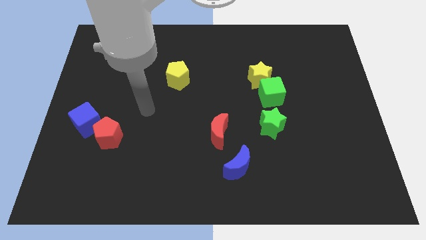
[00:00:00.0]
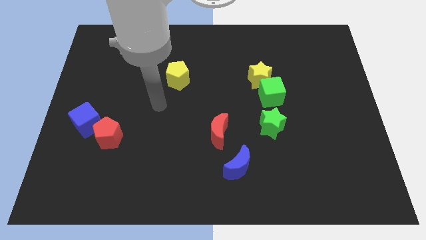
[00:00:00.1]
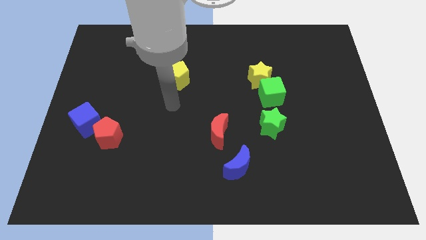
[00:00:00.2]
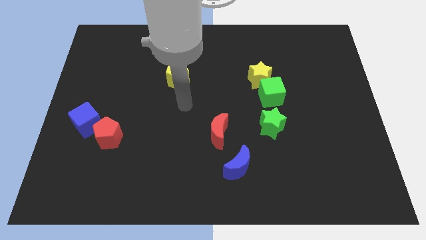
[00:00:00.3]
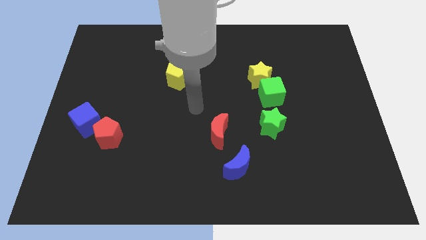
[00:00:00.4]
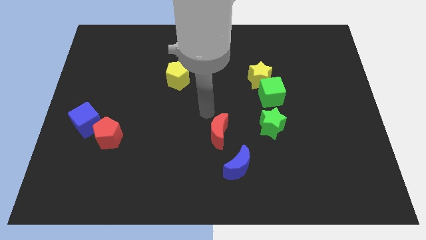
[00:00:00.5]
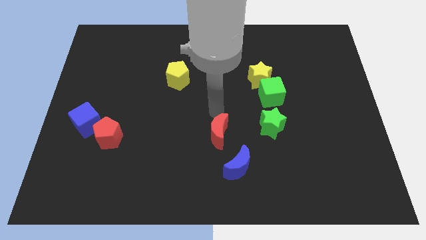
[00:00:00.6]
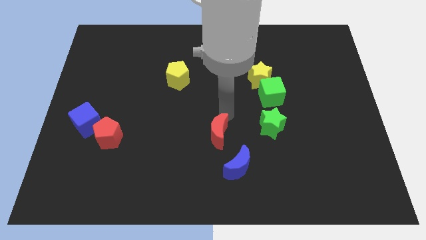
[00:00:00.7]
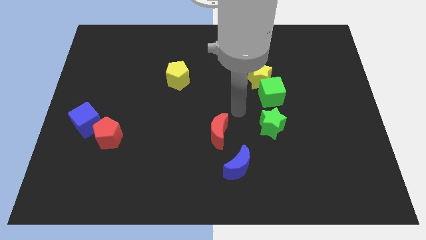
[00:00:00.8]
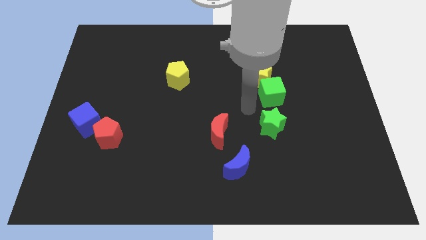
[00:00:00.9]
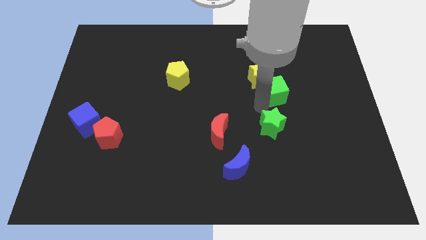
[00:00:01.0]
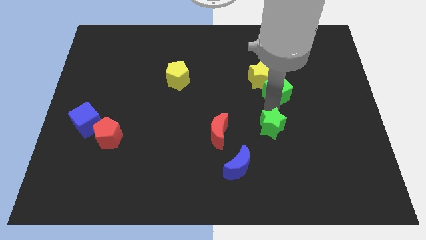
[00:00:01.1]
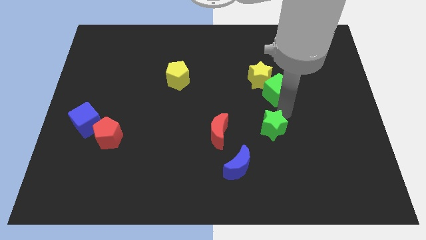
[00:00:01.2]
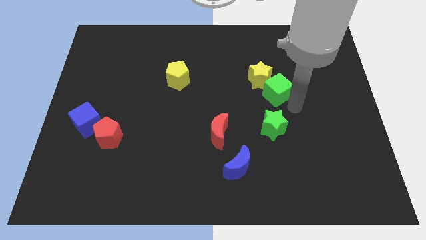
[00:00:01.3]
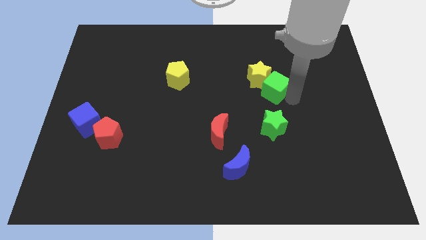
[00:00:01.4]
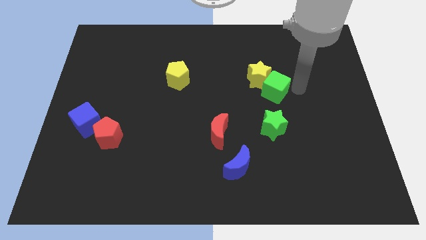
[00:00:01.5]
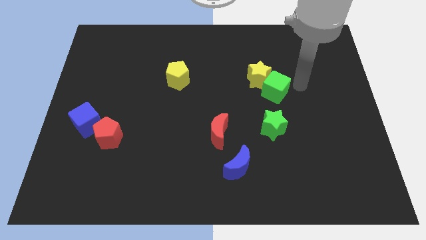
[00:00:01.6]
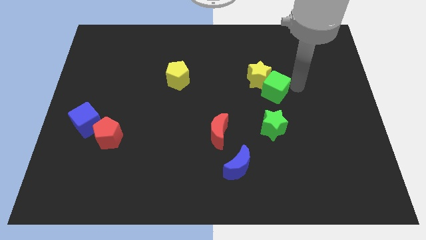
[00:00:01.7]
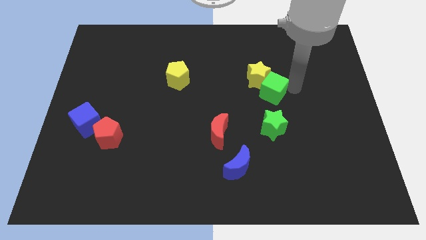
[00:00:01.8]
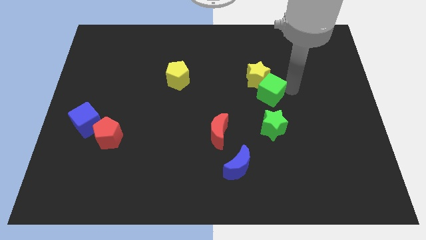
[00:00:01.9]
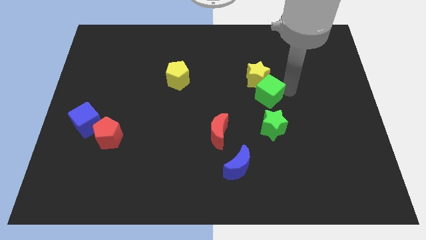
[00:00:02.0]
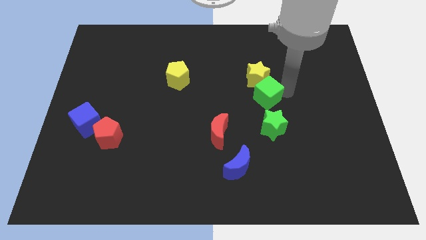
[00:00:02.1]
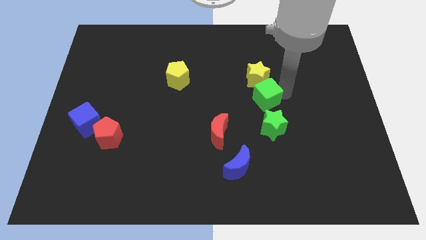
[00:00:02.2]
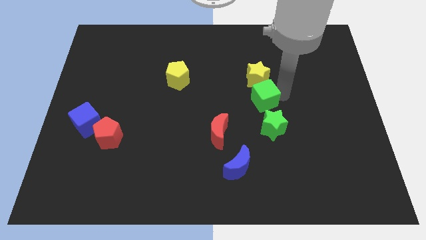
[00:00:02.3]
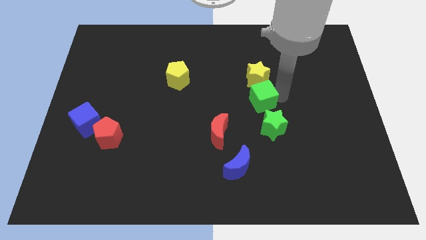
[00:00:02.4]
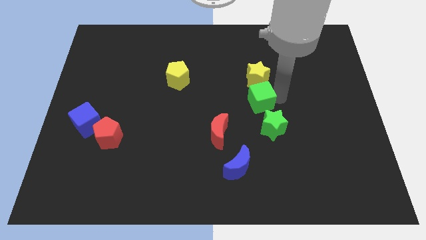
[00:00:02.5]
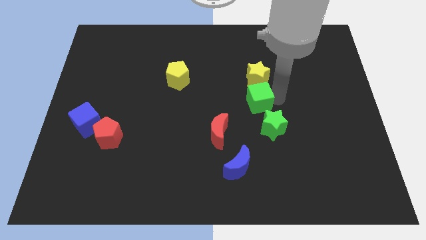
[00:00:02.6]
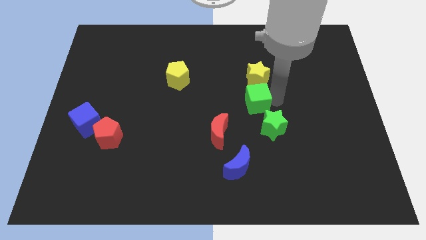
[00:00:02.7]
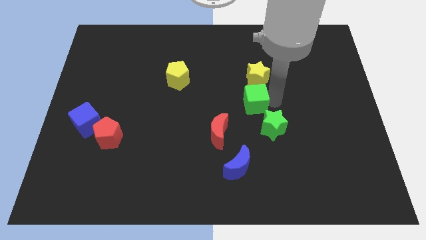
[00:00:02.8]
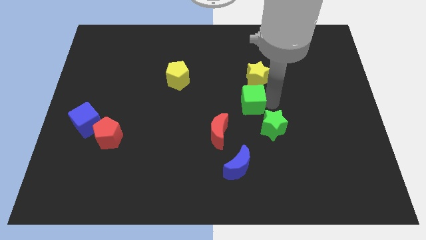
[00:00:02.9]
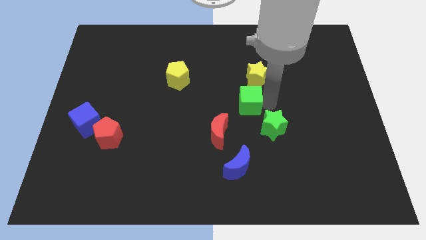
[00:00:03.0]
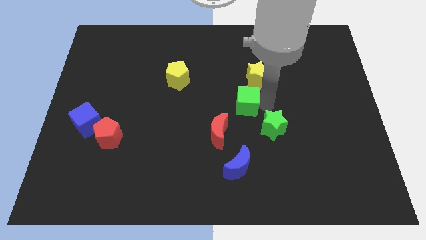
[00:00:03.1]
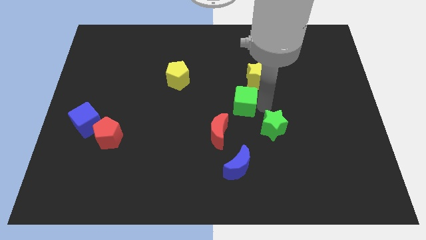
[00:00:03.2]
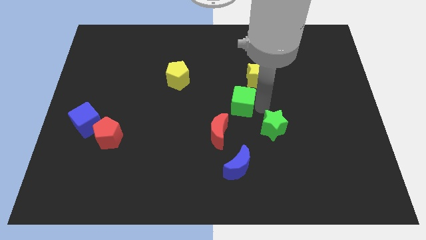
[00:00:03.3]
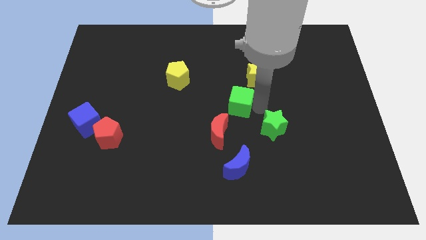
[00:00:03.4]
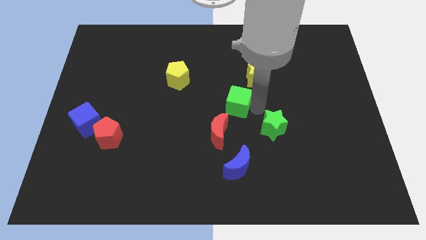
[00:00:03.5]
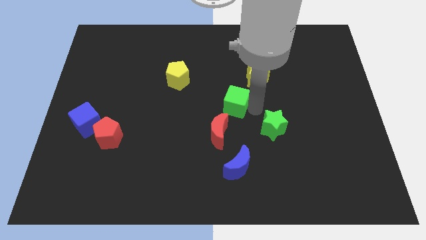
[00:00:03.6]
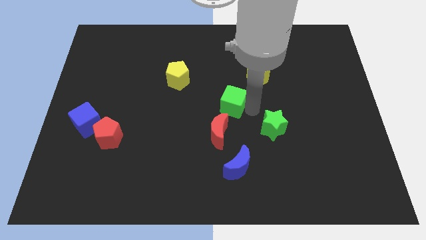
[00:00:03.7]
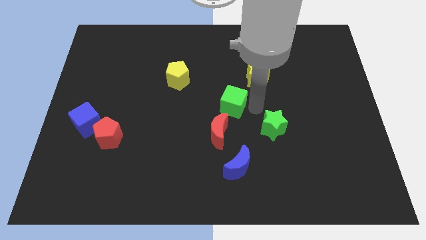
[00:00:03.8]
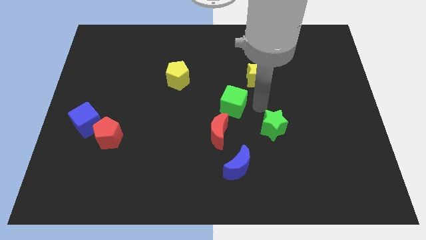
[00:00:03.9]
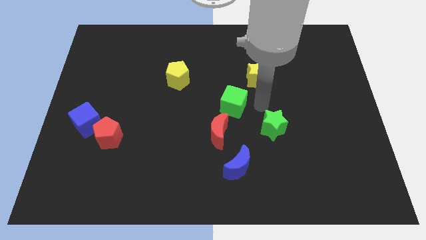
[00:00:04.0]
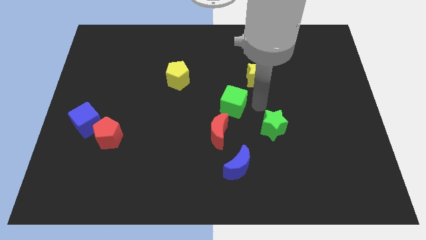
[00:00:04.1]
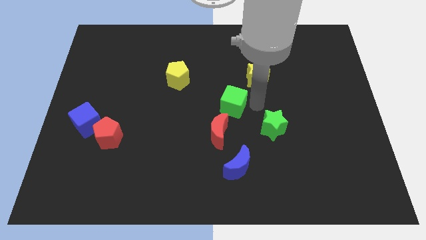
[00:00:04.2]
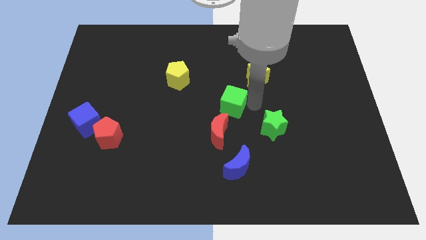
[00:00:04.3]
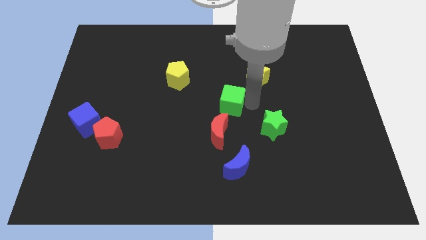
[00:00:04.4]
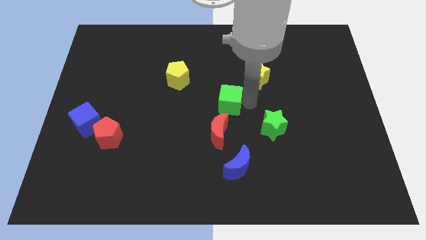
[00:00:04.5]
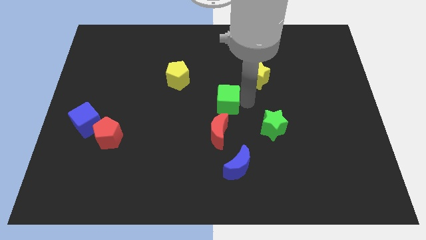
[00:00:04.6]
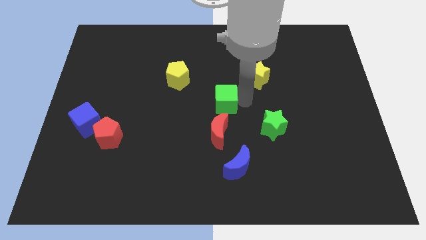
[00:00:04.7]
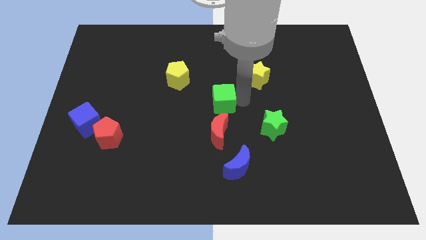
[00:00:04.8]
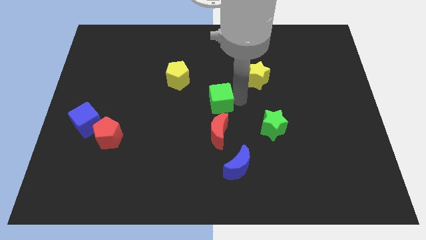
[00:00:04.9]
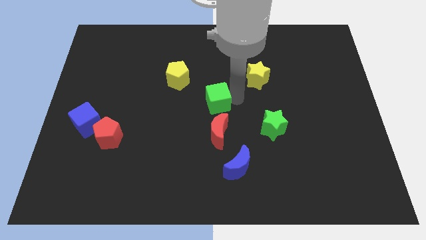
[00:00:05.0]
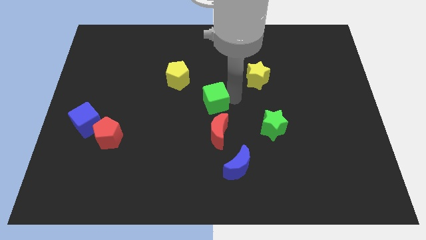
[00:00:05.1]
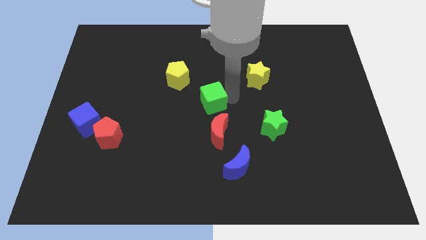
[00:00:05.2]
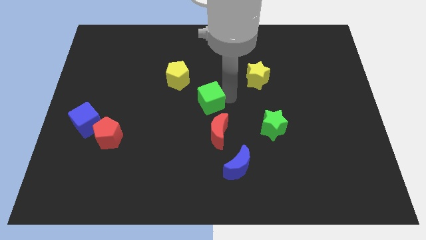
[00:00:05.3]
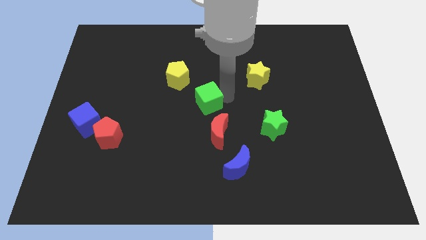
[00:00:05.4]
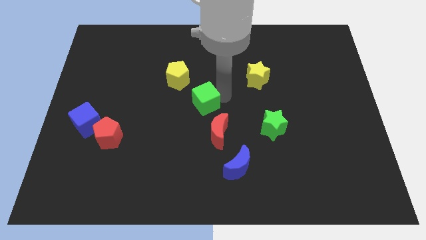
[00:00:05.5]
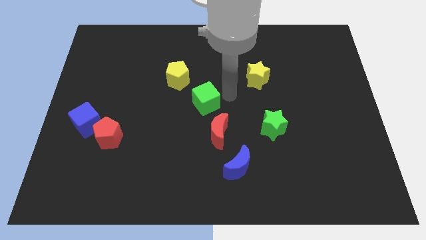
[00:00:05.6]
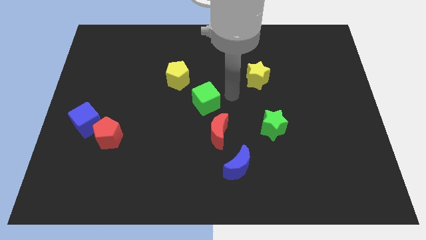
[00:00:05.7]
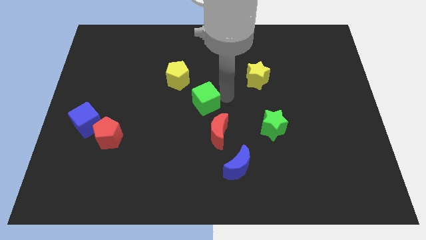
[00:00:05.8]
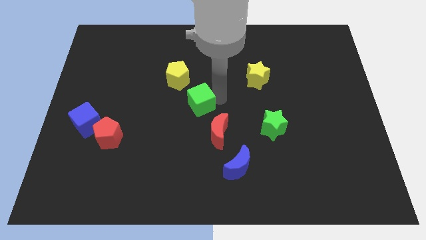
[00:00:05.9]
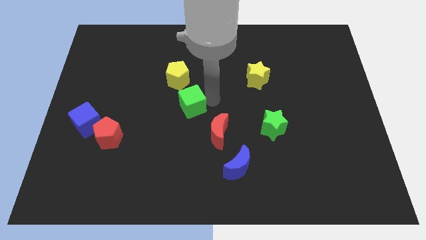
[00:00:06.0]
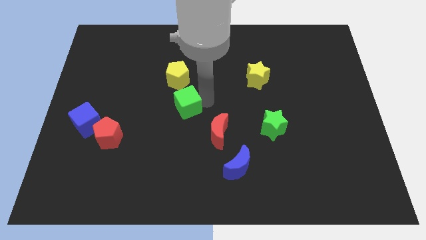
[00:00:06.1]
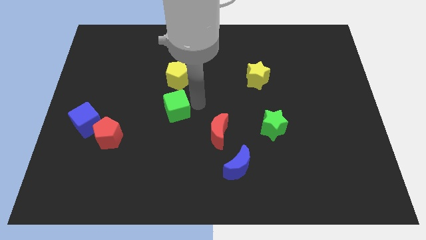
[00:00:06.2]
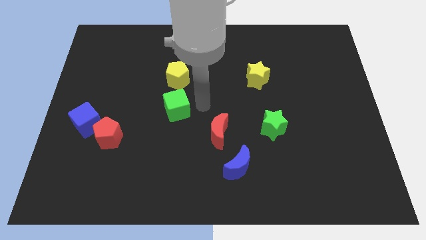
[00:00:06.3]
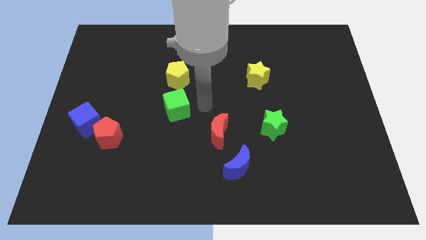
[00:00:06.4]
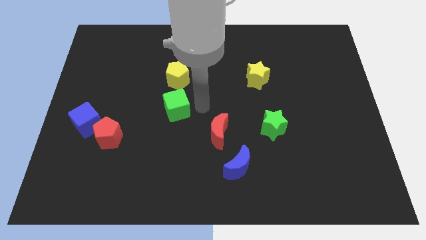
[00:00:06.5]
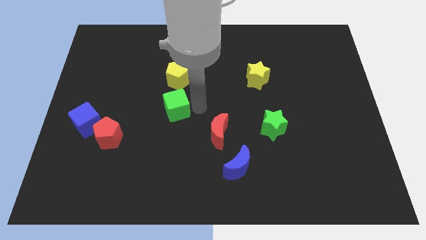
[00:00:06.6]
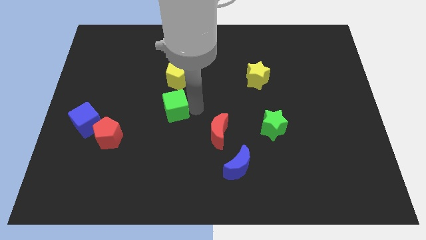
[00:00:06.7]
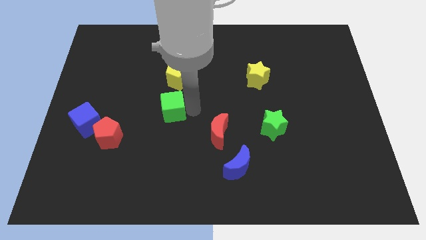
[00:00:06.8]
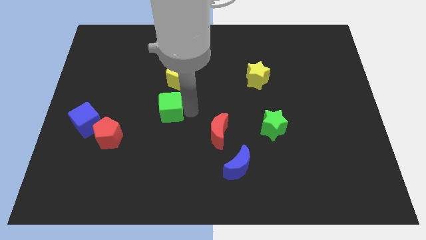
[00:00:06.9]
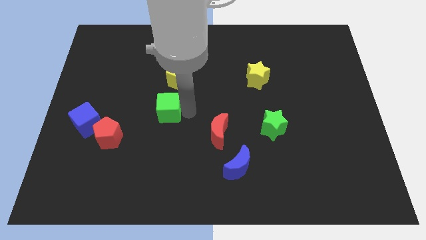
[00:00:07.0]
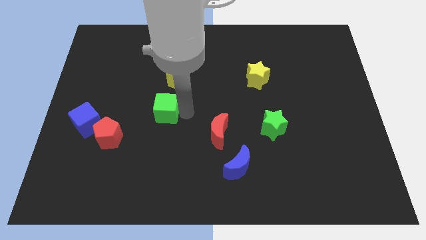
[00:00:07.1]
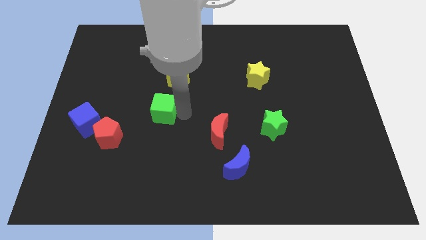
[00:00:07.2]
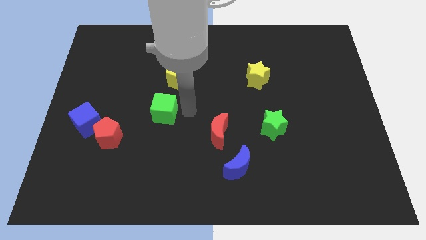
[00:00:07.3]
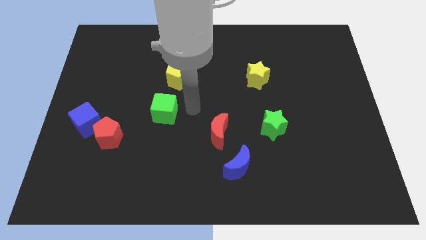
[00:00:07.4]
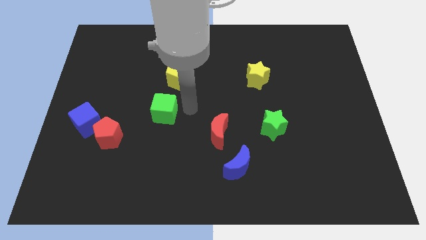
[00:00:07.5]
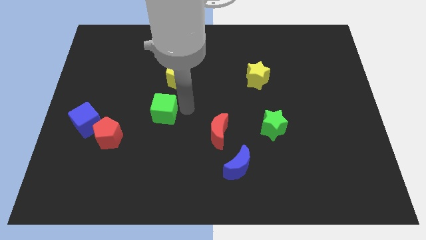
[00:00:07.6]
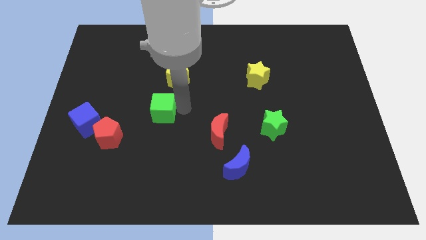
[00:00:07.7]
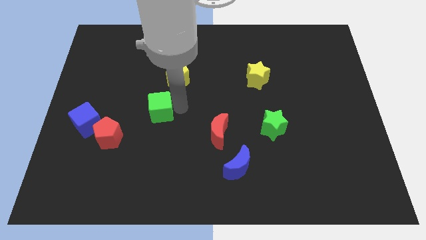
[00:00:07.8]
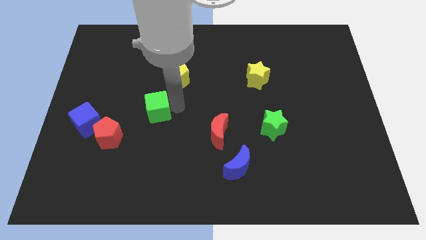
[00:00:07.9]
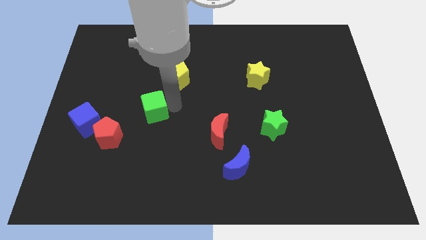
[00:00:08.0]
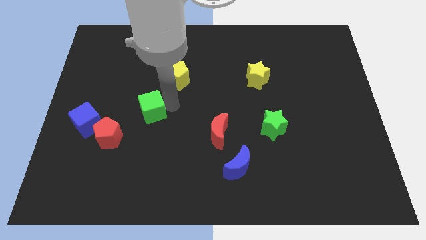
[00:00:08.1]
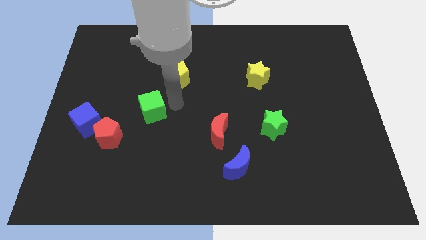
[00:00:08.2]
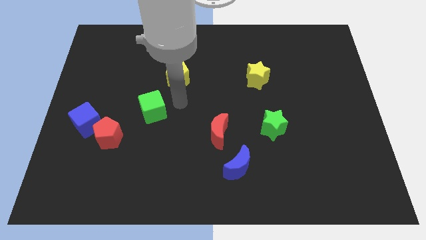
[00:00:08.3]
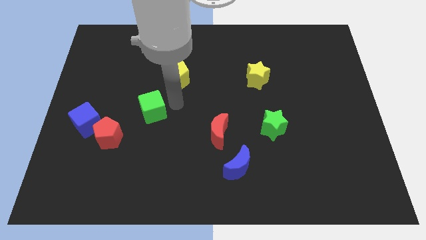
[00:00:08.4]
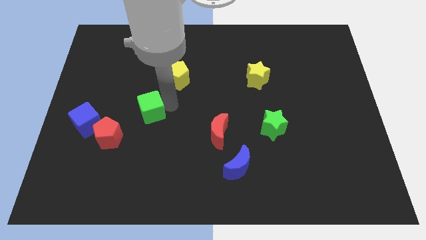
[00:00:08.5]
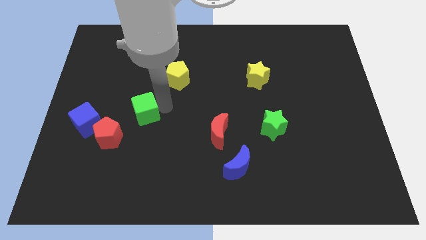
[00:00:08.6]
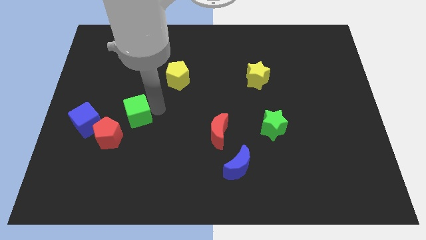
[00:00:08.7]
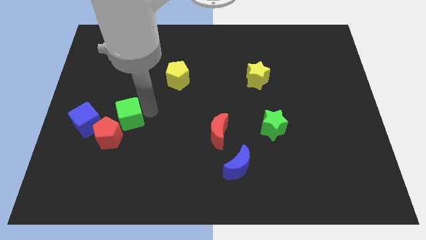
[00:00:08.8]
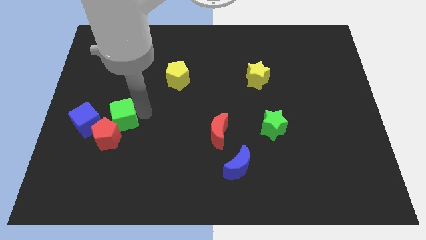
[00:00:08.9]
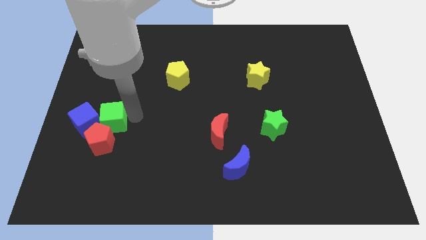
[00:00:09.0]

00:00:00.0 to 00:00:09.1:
move the green cube next to the blue cube
